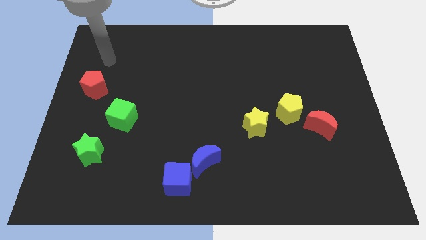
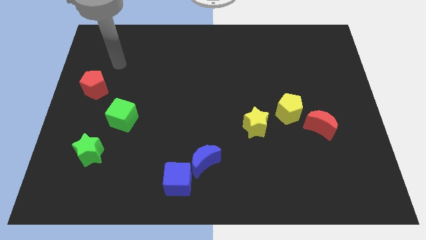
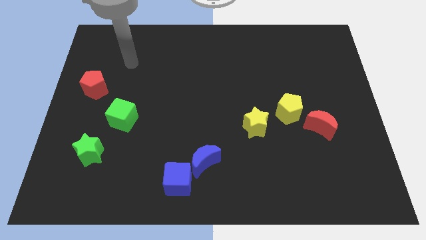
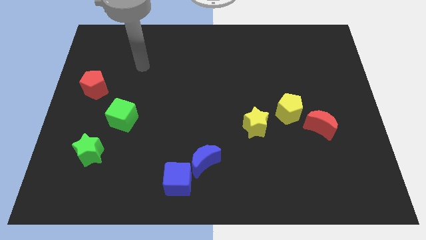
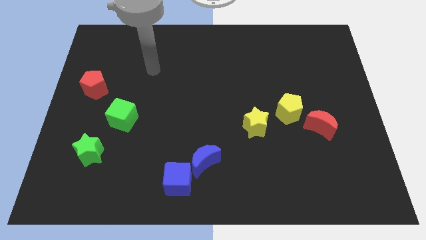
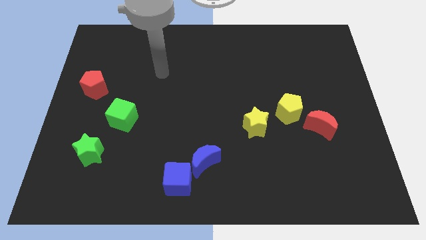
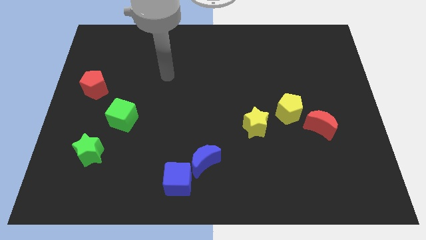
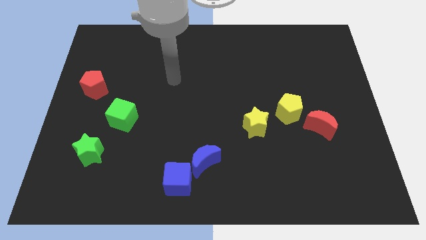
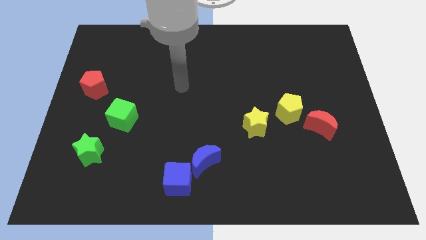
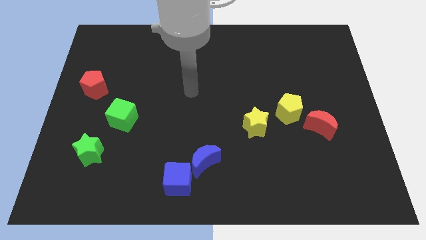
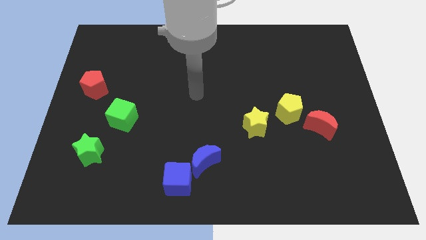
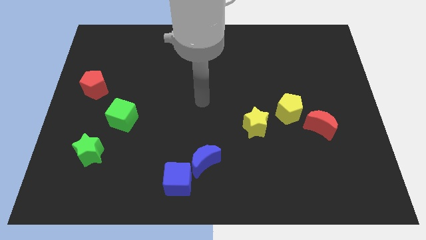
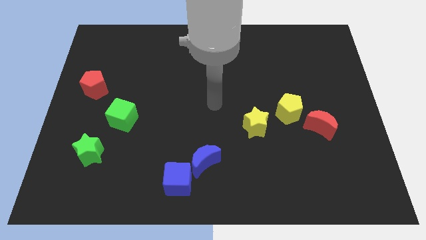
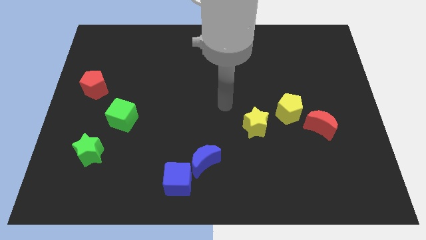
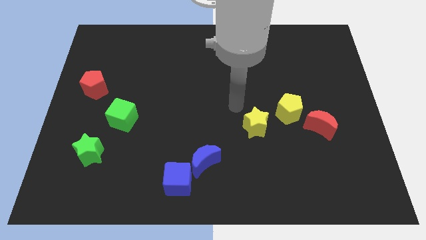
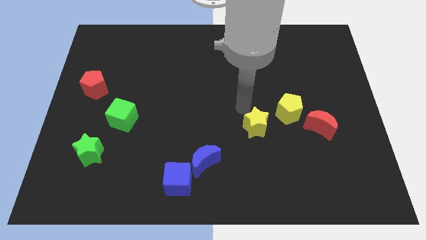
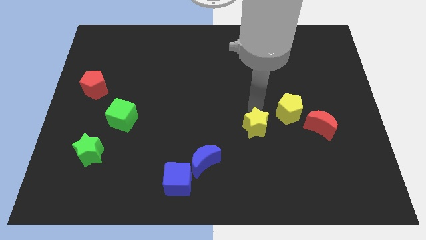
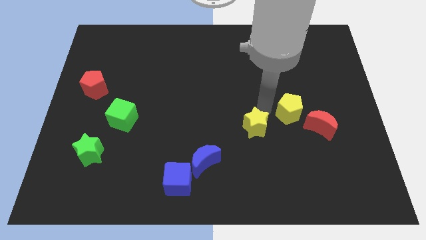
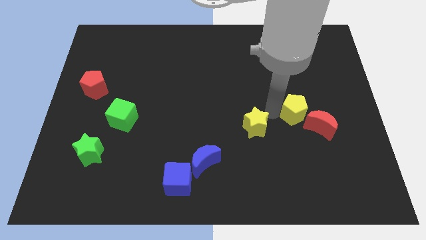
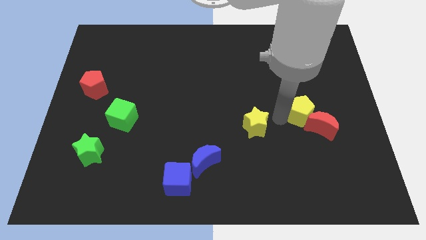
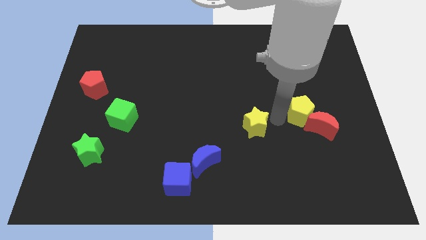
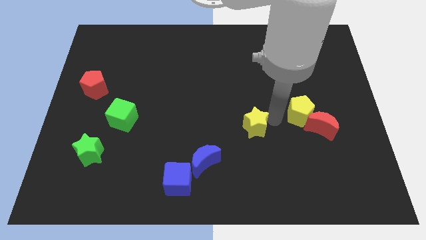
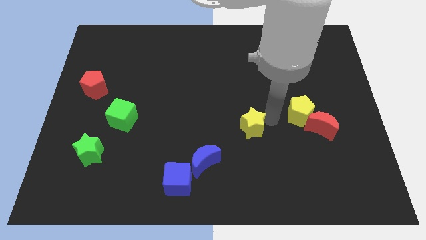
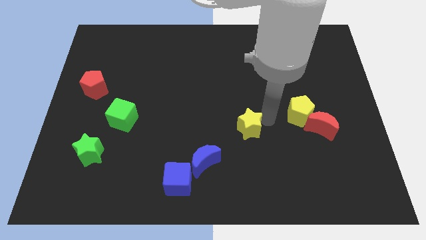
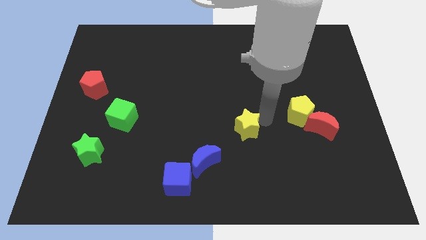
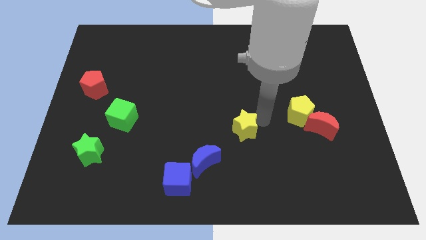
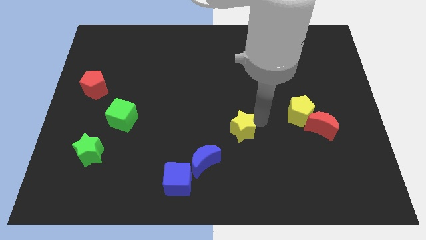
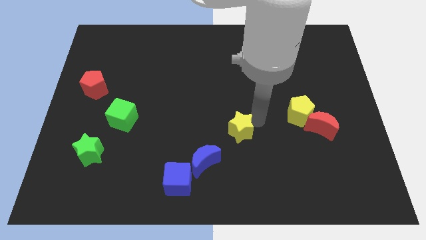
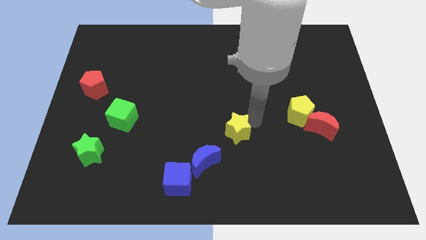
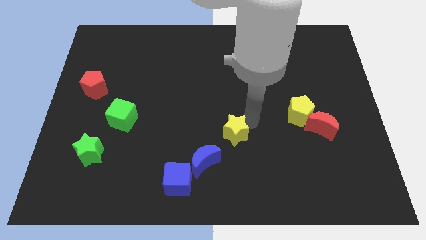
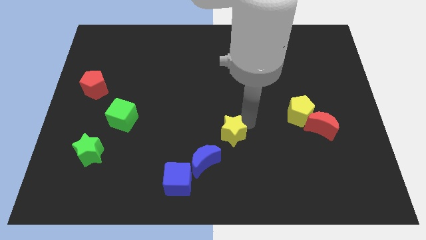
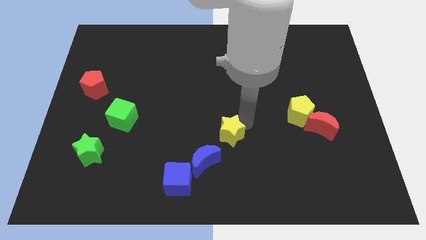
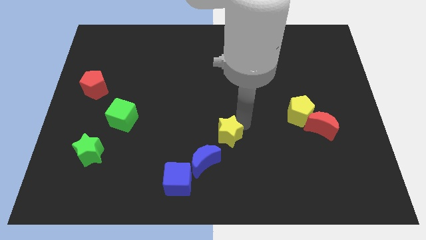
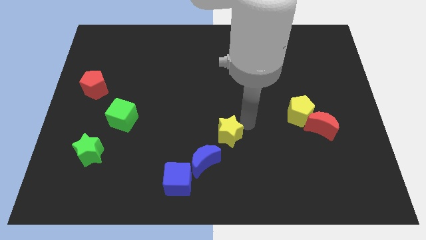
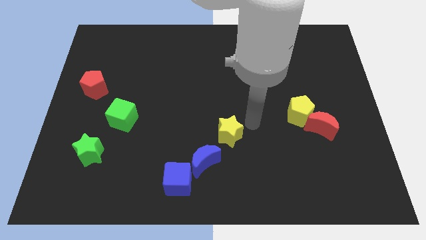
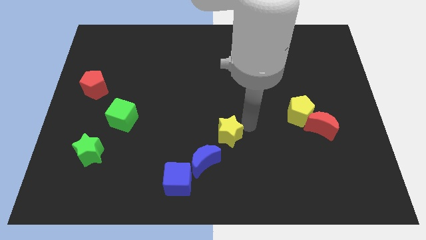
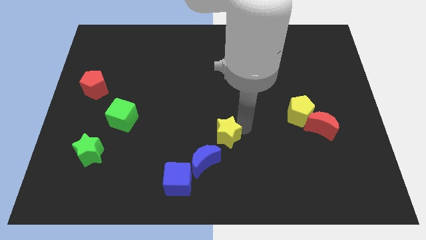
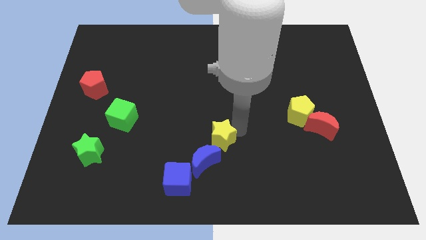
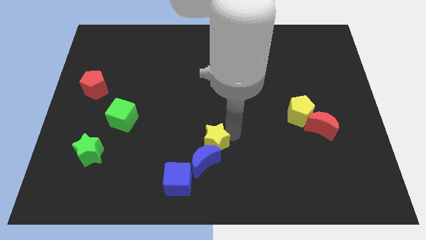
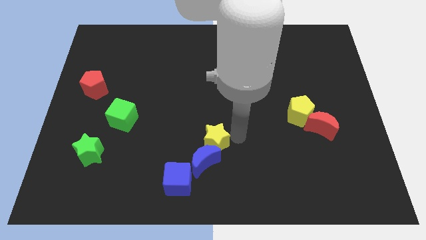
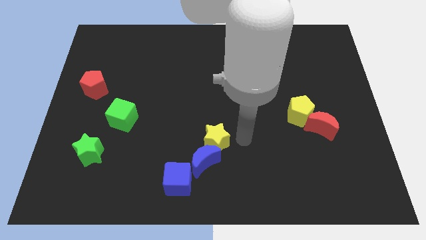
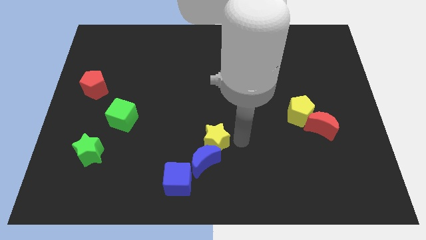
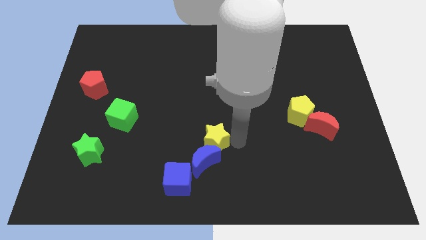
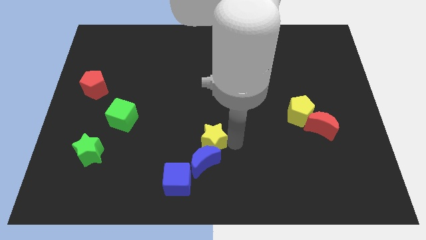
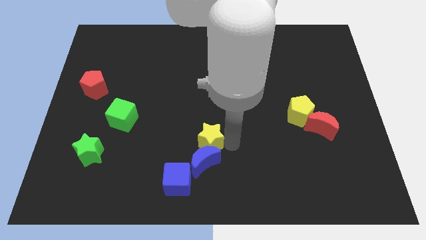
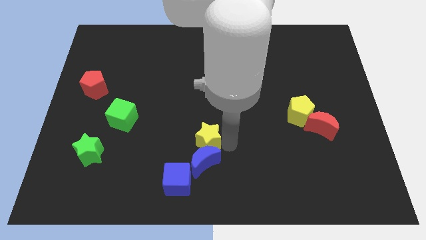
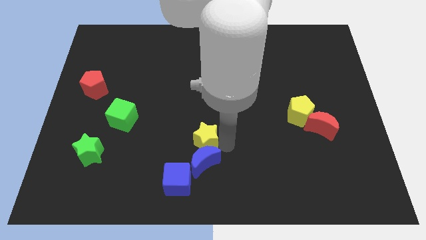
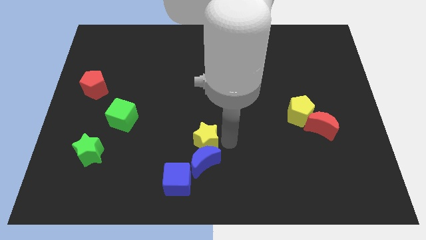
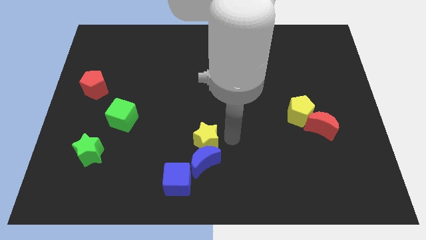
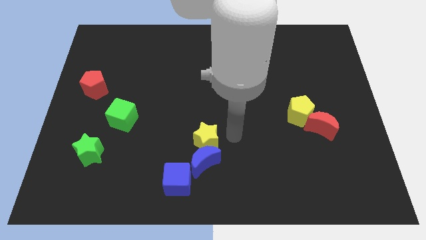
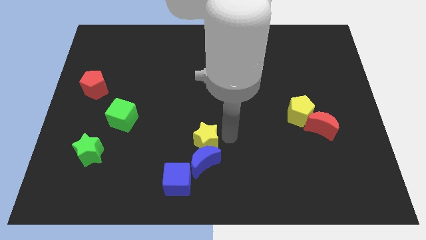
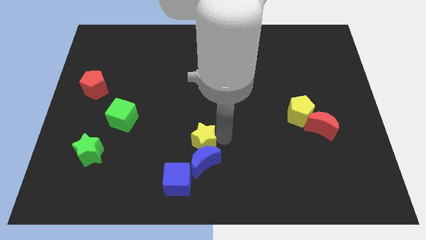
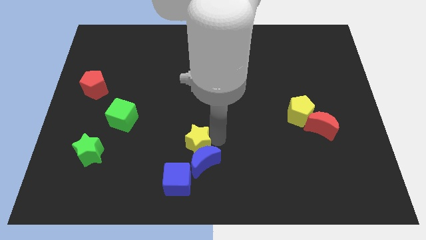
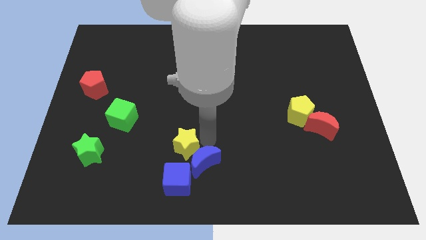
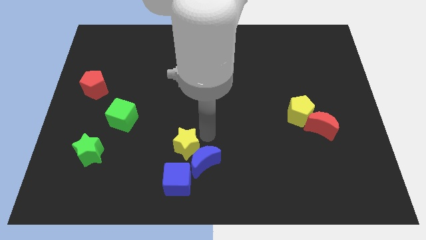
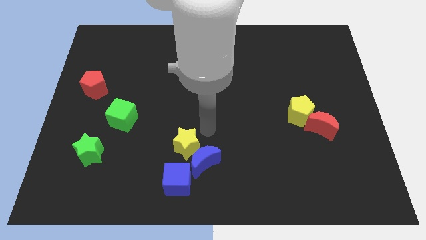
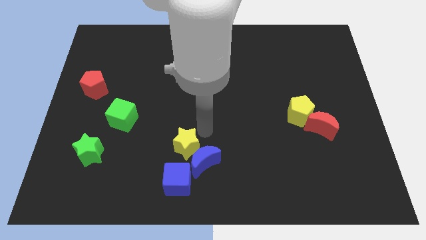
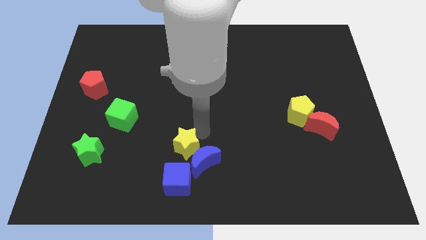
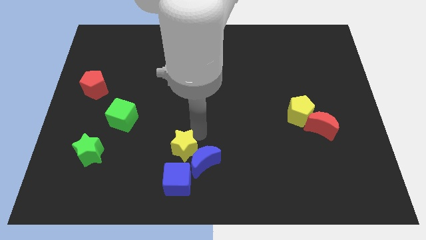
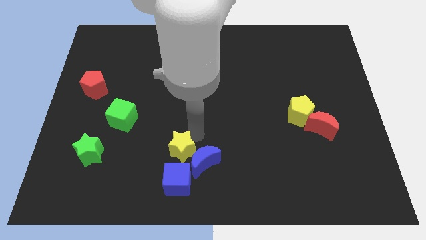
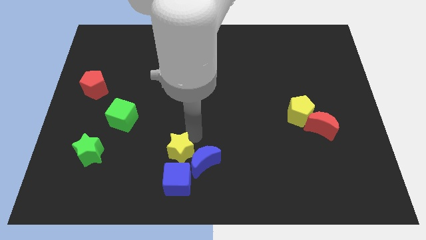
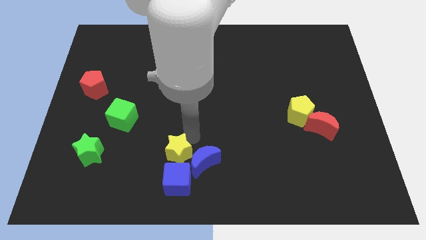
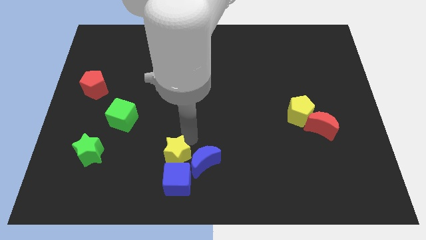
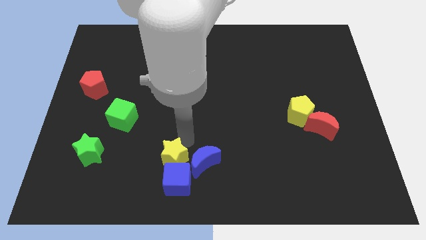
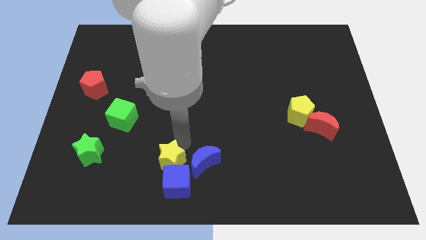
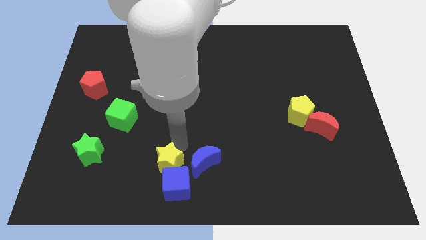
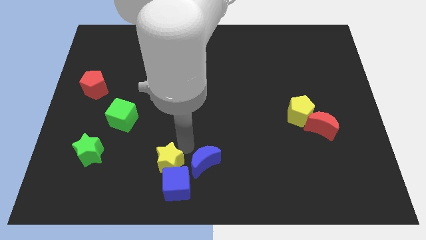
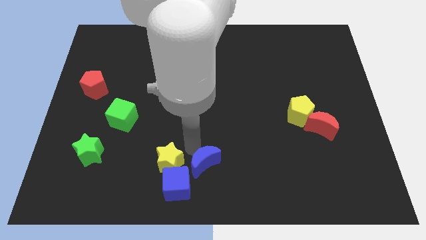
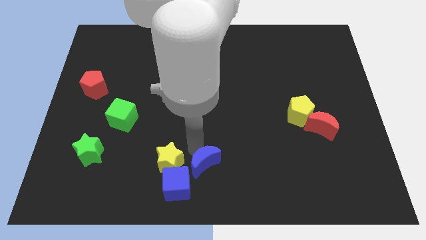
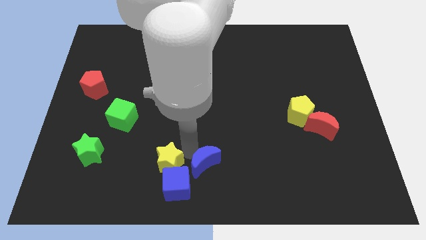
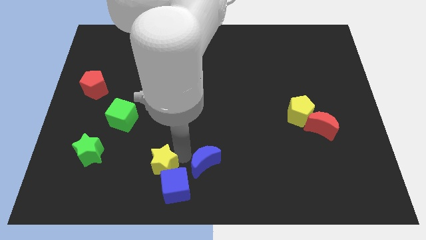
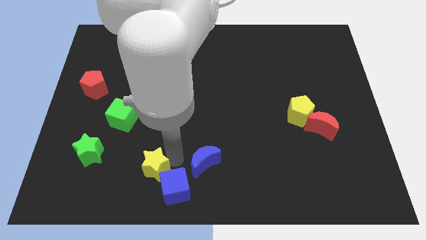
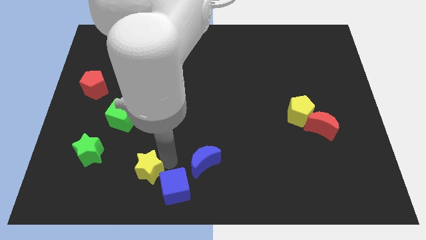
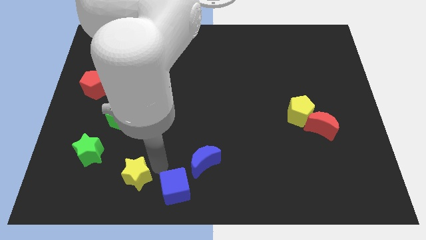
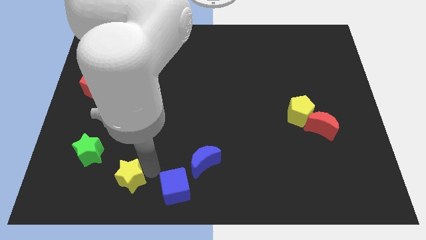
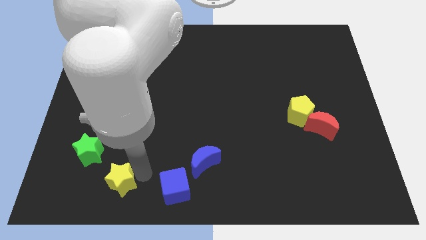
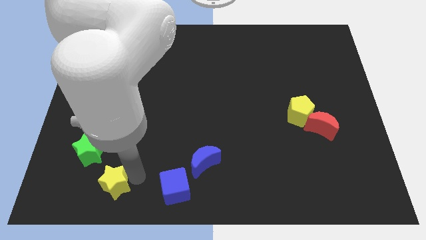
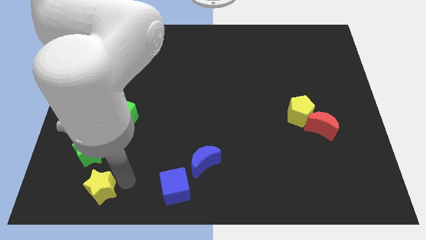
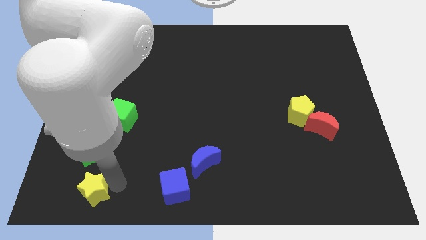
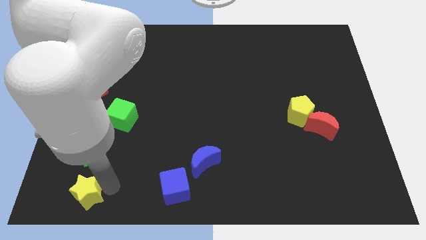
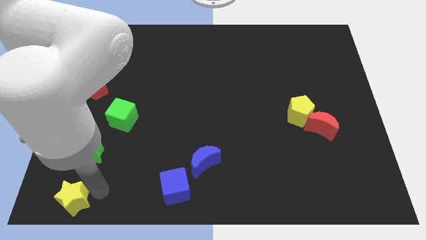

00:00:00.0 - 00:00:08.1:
push the yellow star to the bottom left
